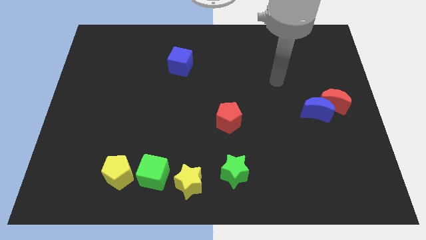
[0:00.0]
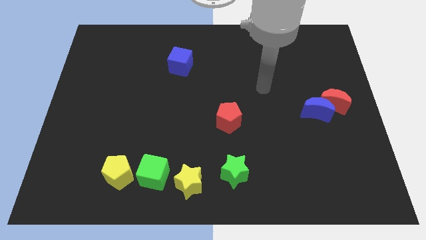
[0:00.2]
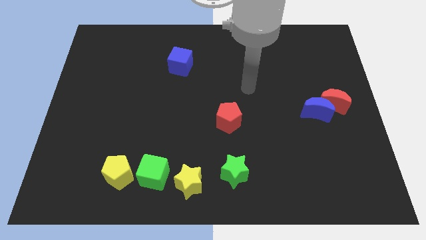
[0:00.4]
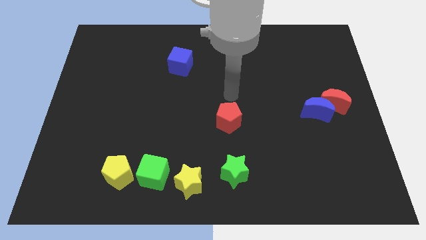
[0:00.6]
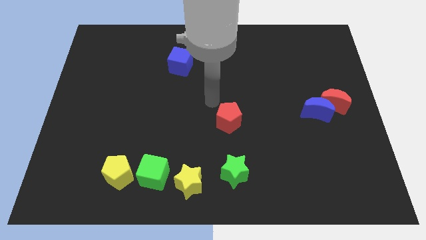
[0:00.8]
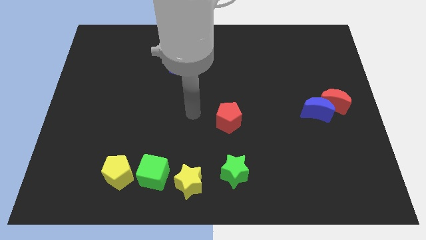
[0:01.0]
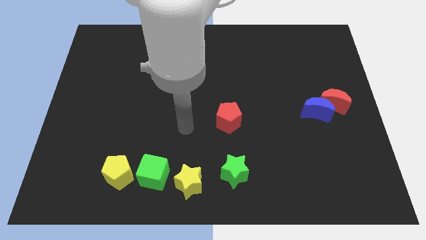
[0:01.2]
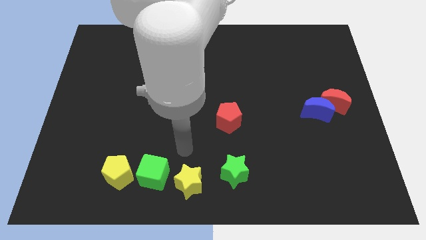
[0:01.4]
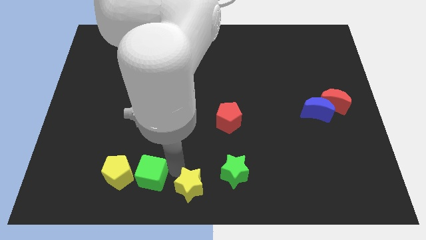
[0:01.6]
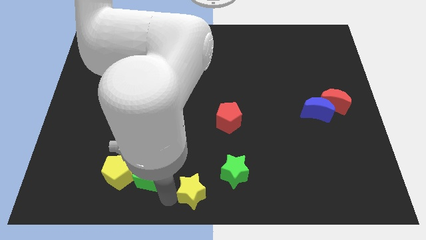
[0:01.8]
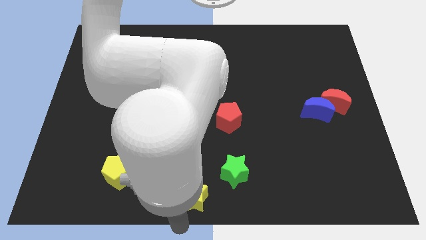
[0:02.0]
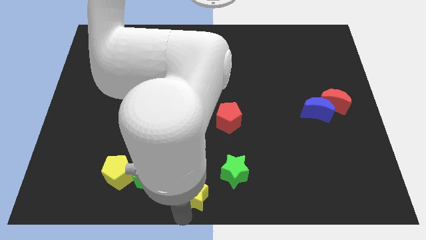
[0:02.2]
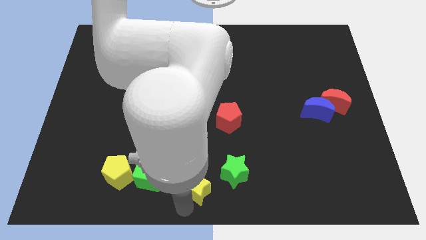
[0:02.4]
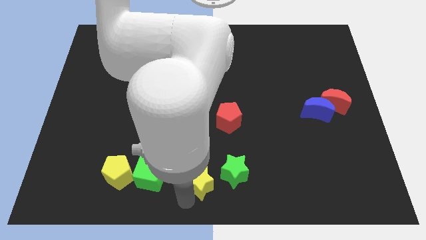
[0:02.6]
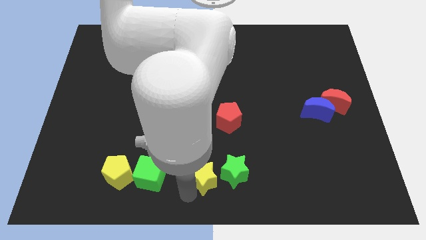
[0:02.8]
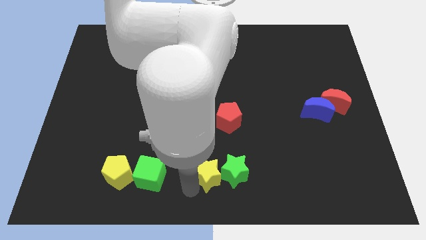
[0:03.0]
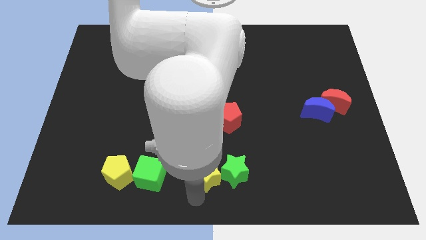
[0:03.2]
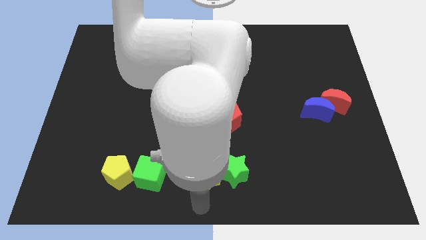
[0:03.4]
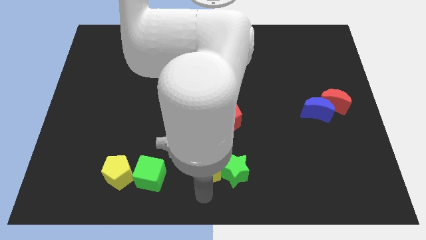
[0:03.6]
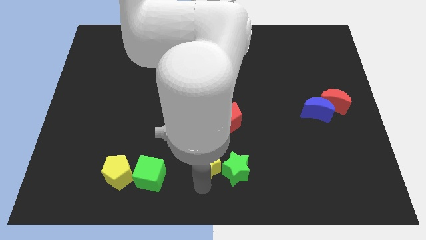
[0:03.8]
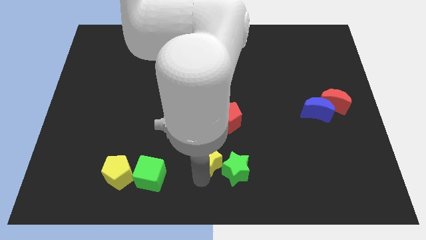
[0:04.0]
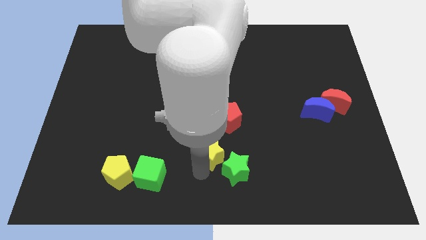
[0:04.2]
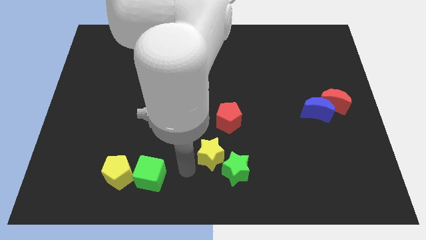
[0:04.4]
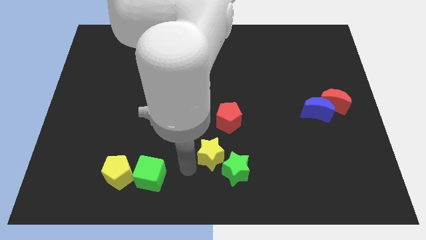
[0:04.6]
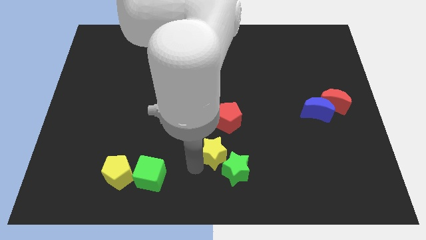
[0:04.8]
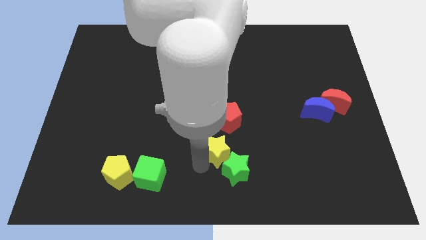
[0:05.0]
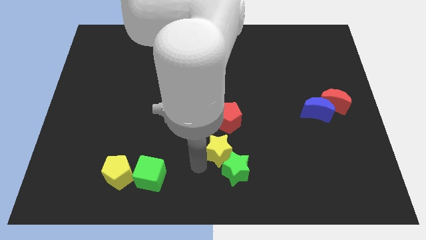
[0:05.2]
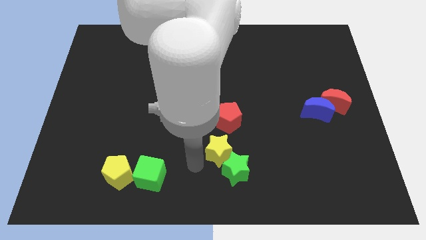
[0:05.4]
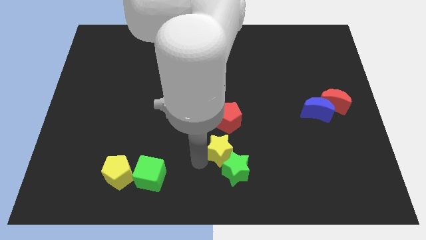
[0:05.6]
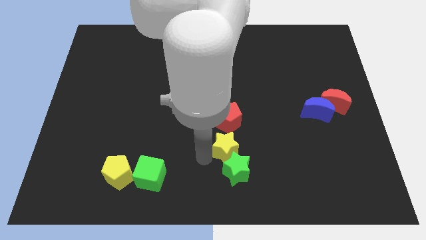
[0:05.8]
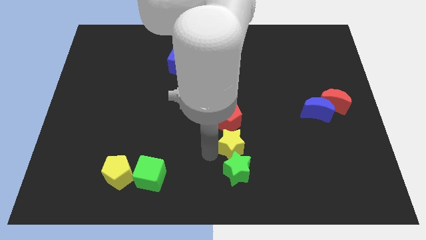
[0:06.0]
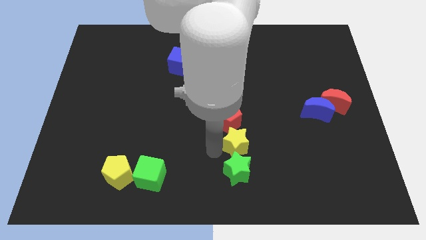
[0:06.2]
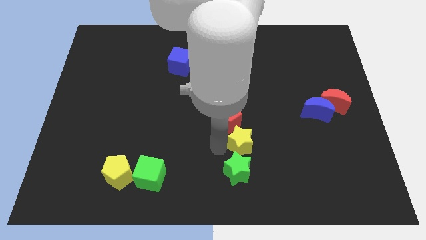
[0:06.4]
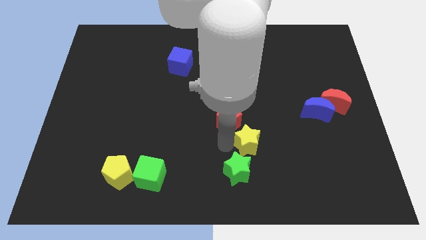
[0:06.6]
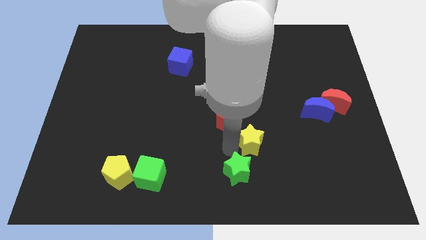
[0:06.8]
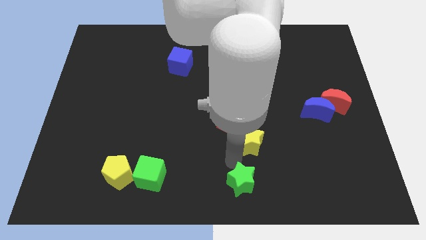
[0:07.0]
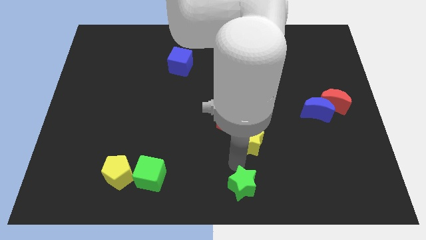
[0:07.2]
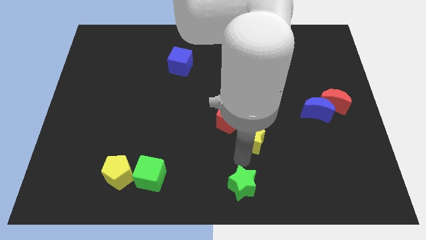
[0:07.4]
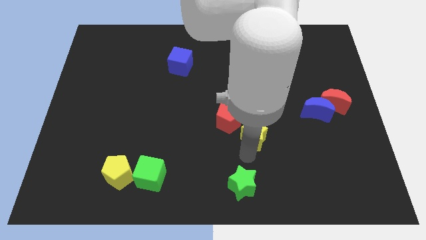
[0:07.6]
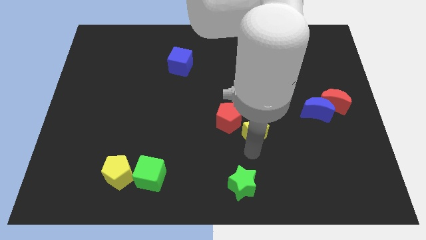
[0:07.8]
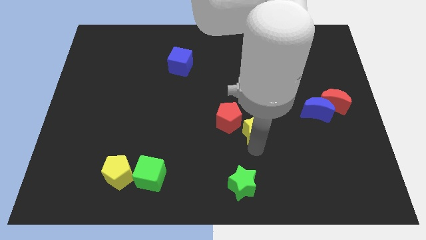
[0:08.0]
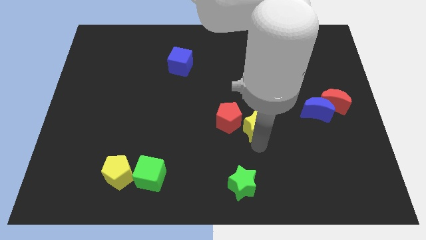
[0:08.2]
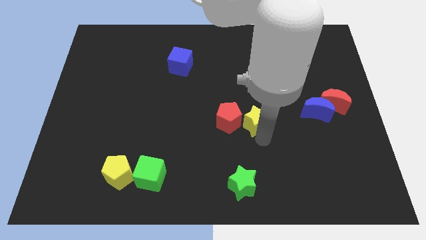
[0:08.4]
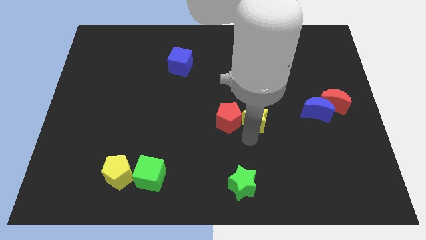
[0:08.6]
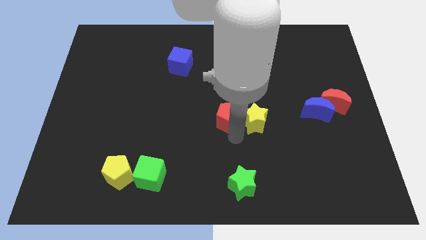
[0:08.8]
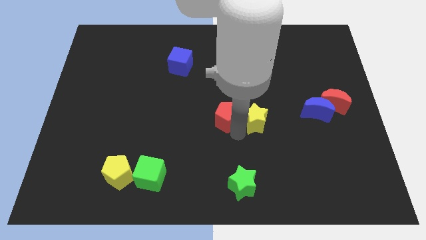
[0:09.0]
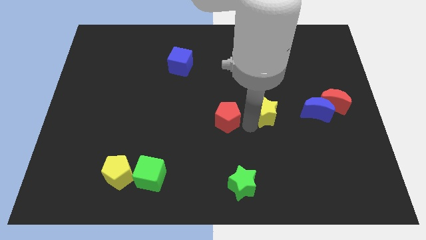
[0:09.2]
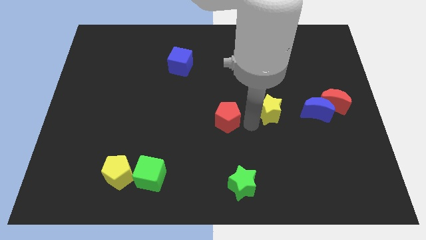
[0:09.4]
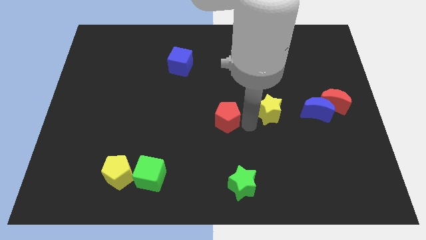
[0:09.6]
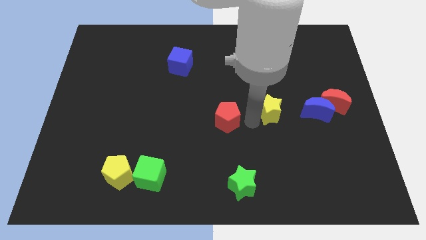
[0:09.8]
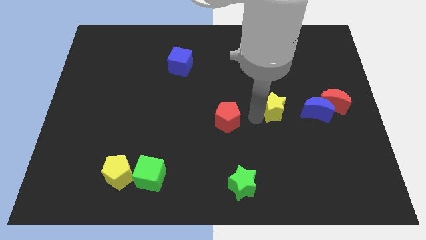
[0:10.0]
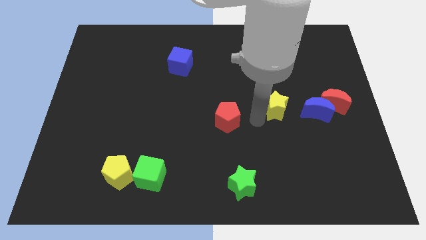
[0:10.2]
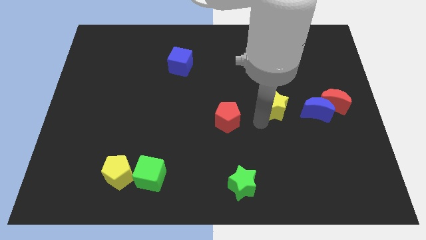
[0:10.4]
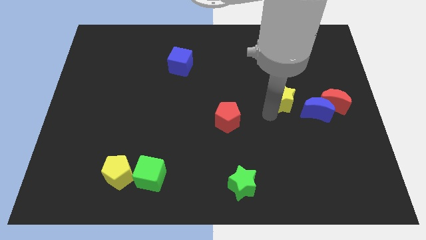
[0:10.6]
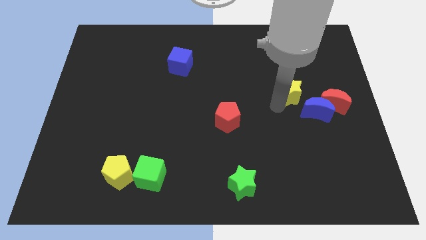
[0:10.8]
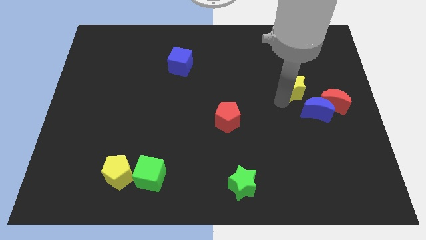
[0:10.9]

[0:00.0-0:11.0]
put the yellow star diagonally up and to the left of the red moon

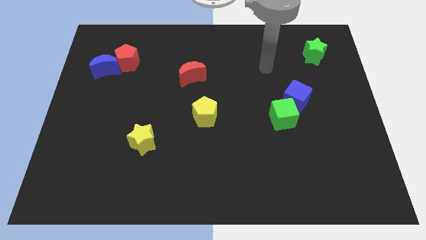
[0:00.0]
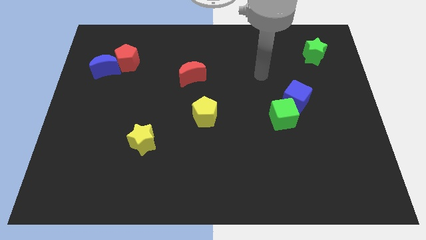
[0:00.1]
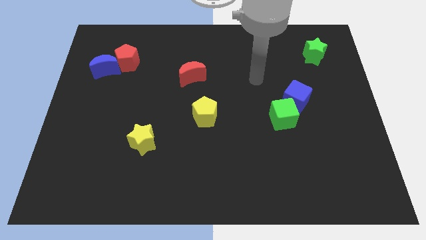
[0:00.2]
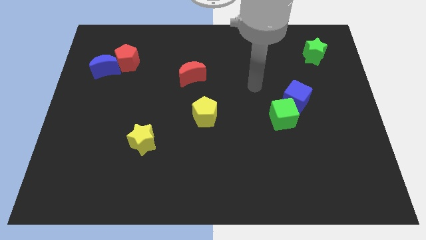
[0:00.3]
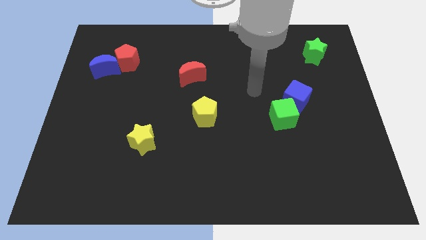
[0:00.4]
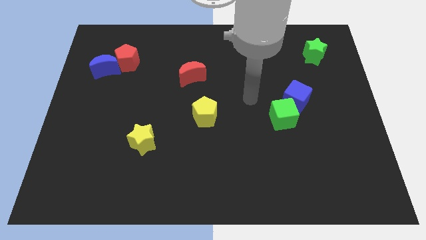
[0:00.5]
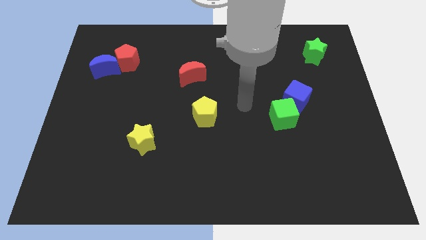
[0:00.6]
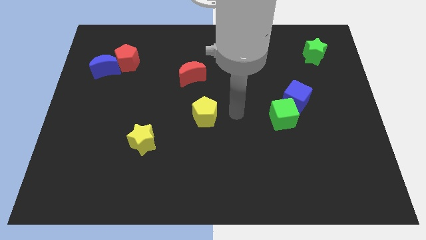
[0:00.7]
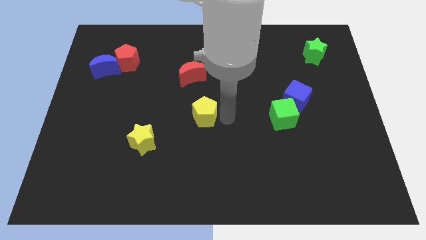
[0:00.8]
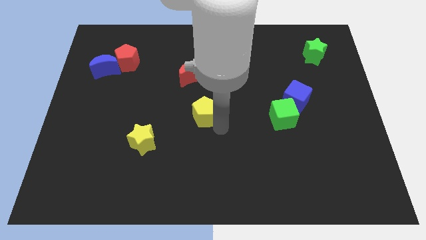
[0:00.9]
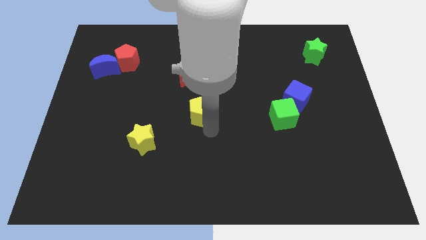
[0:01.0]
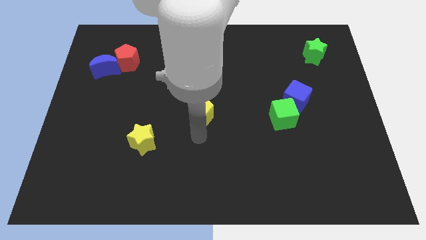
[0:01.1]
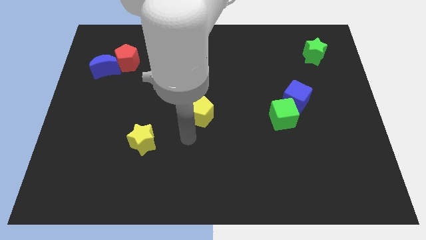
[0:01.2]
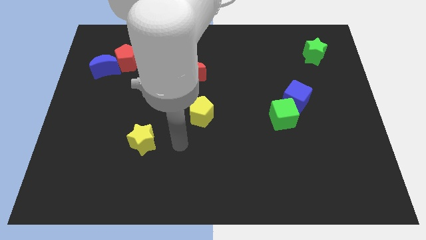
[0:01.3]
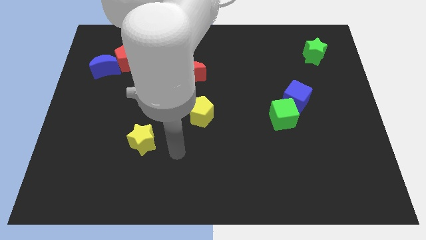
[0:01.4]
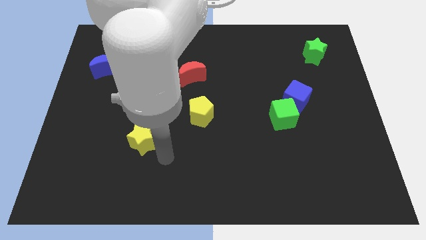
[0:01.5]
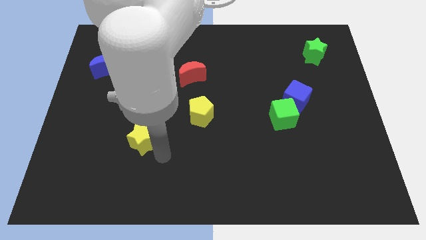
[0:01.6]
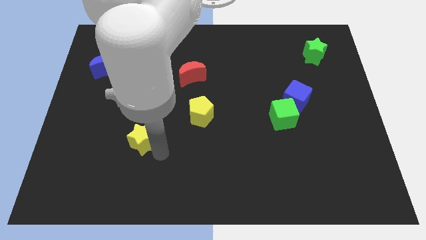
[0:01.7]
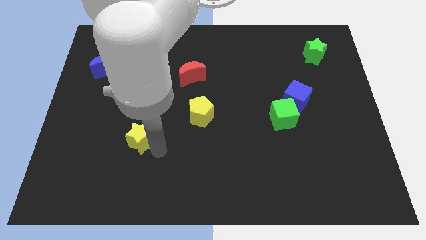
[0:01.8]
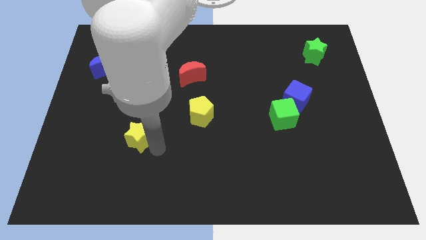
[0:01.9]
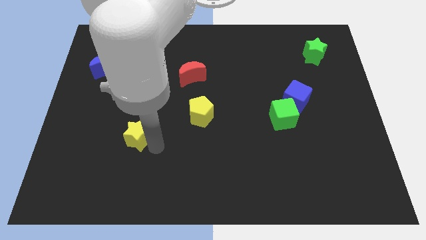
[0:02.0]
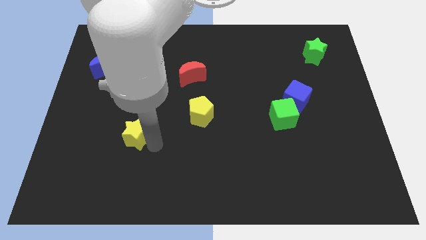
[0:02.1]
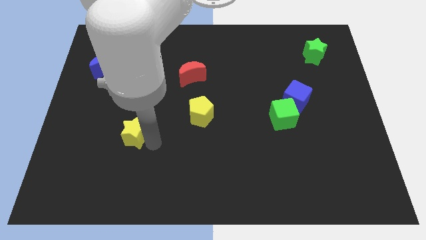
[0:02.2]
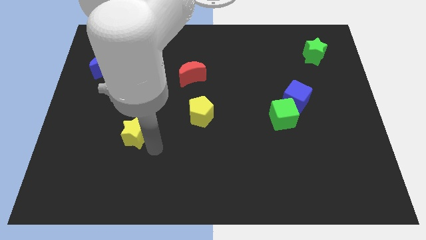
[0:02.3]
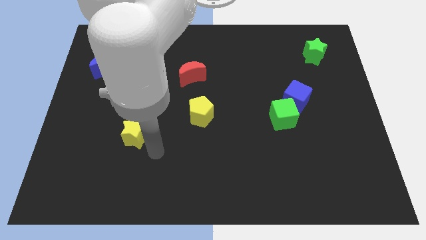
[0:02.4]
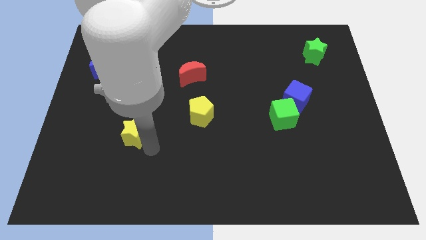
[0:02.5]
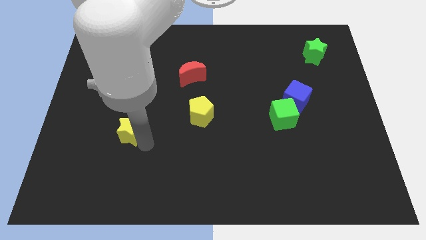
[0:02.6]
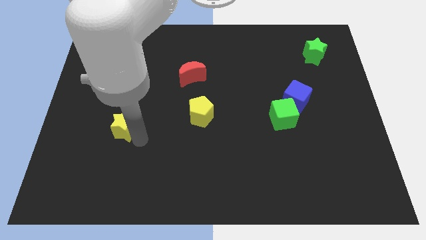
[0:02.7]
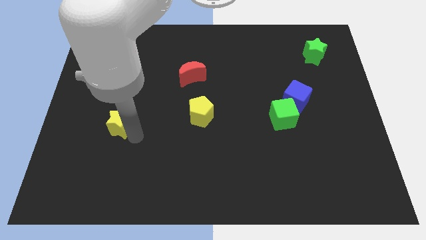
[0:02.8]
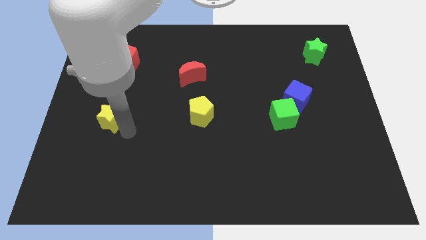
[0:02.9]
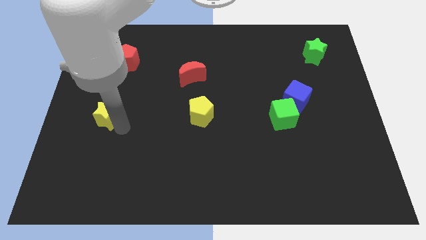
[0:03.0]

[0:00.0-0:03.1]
put the yellow star below the blue moon
